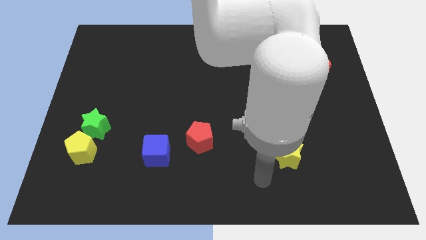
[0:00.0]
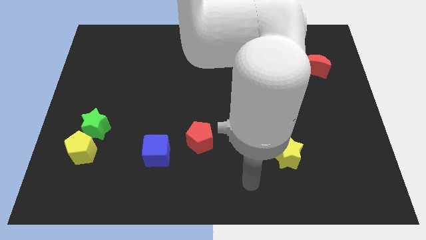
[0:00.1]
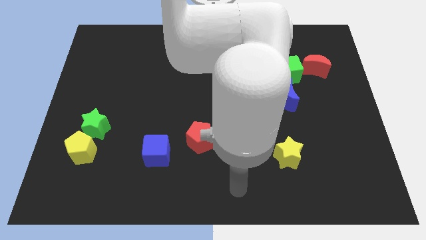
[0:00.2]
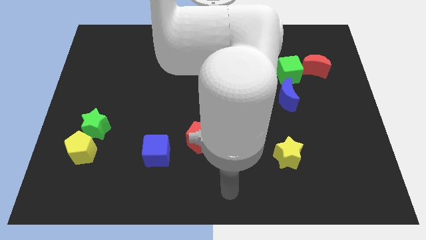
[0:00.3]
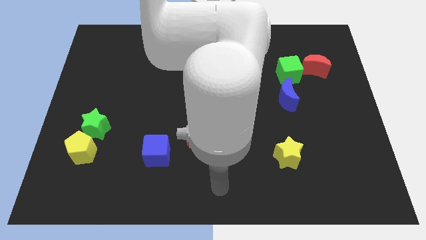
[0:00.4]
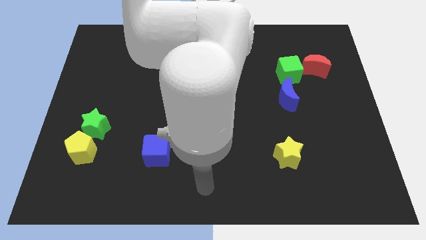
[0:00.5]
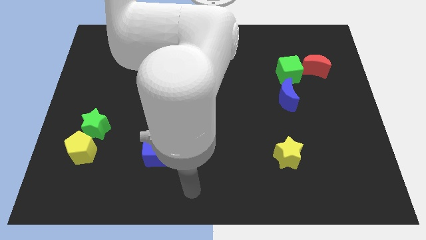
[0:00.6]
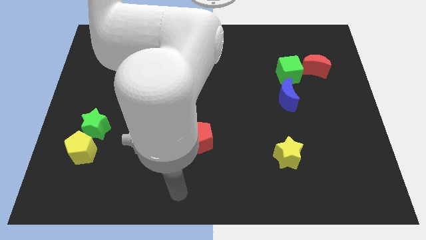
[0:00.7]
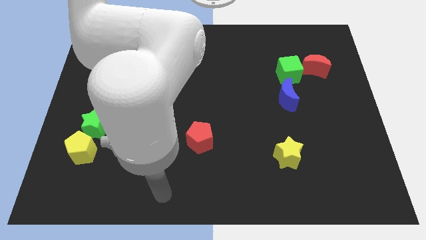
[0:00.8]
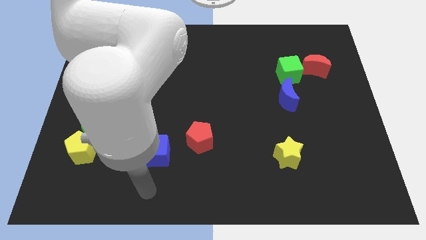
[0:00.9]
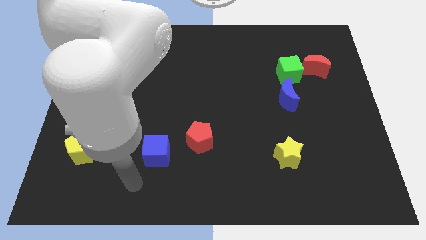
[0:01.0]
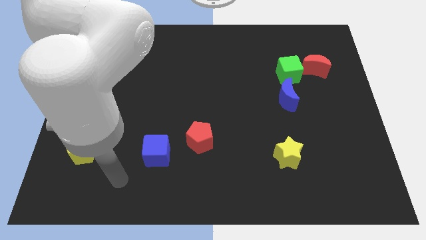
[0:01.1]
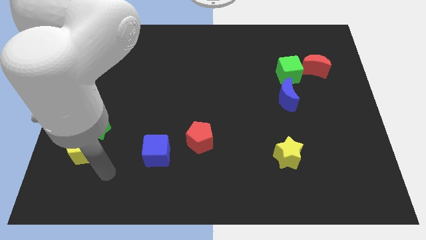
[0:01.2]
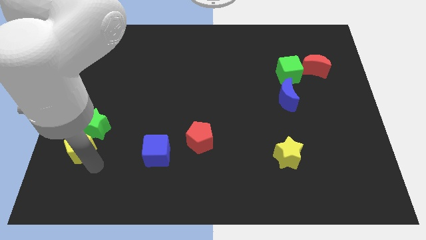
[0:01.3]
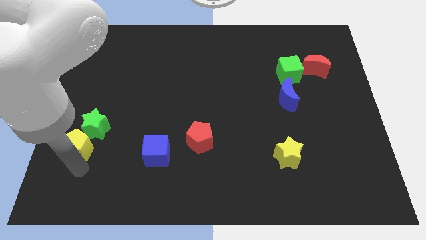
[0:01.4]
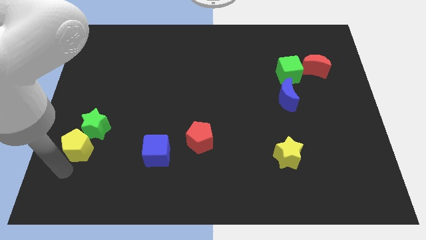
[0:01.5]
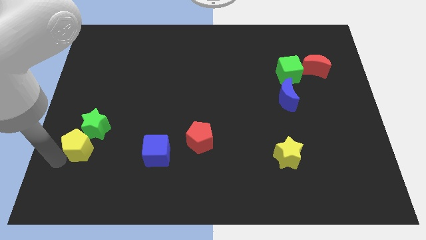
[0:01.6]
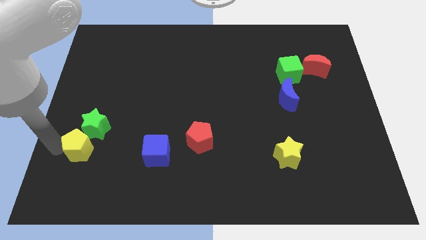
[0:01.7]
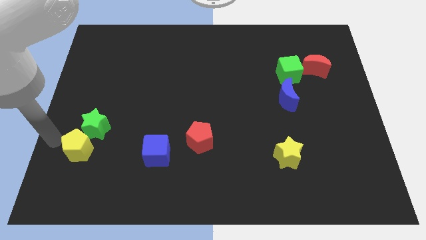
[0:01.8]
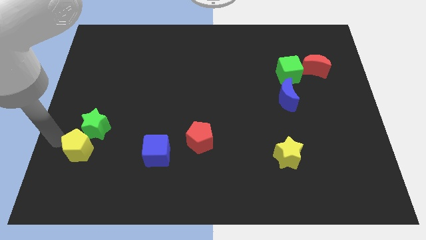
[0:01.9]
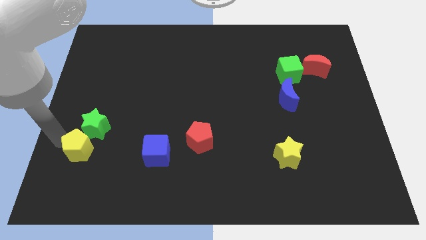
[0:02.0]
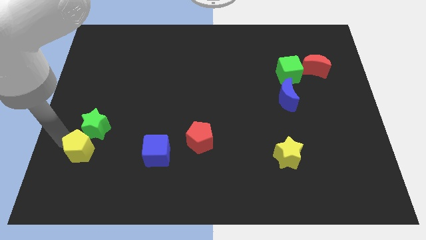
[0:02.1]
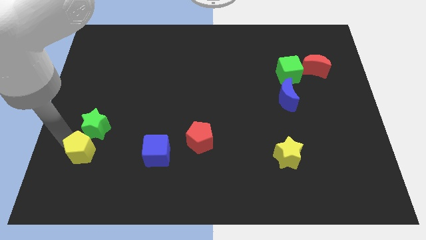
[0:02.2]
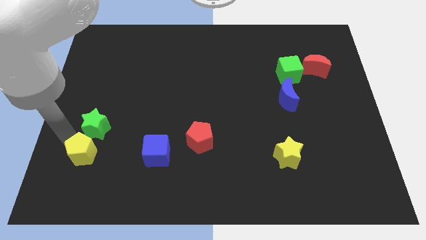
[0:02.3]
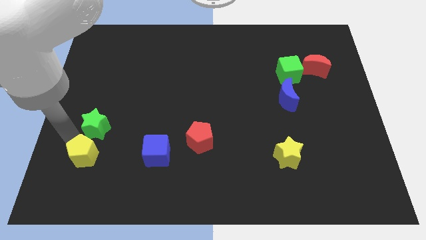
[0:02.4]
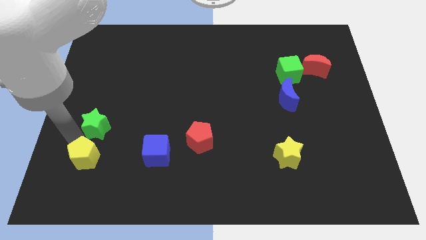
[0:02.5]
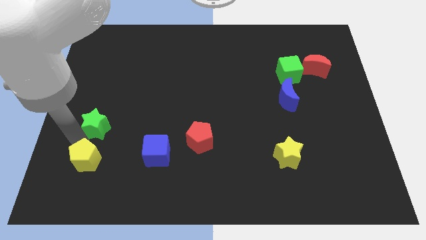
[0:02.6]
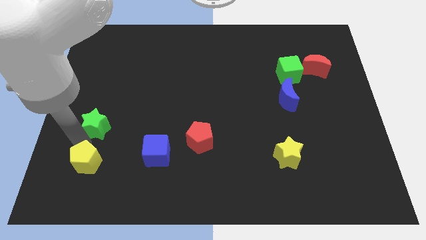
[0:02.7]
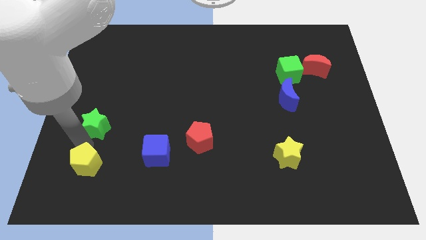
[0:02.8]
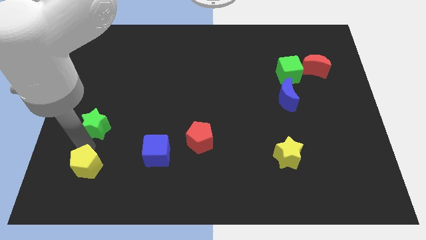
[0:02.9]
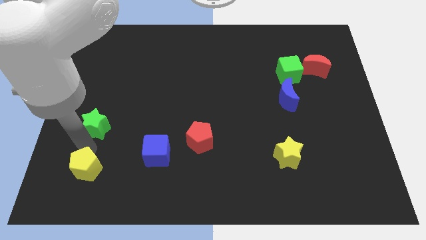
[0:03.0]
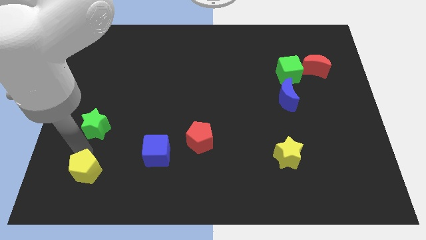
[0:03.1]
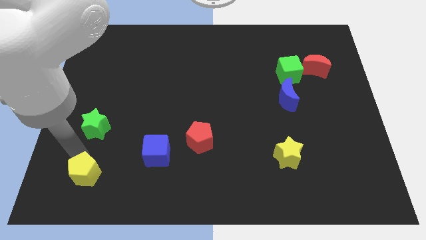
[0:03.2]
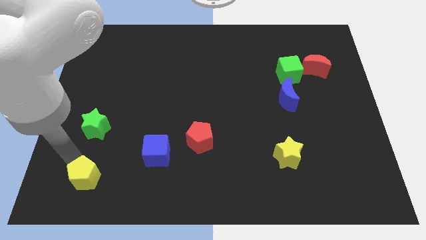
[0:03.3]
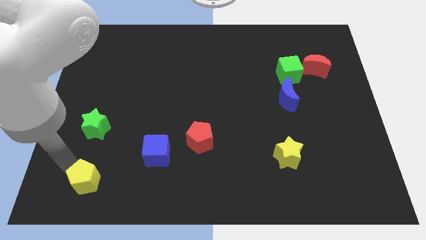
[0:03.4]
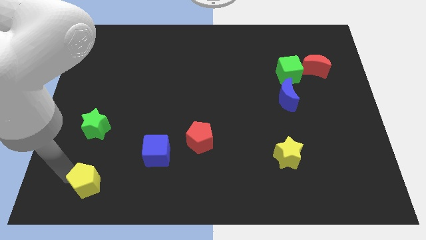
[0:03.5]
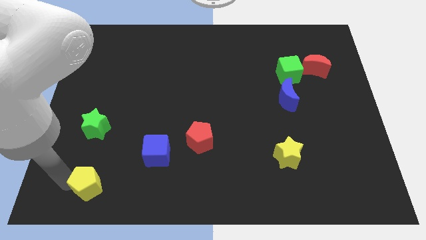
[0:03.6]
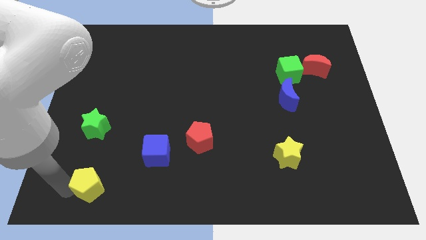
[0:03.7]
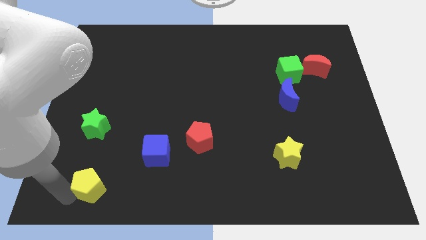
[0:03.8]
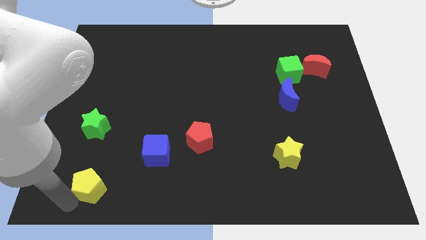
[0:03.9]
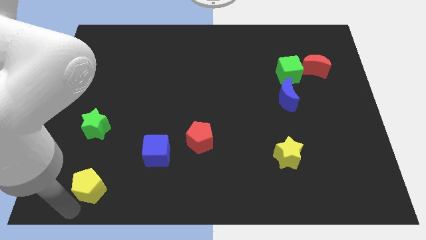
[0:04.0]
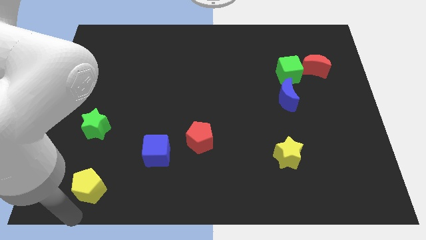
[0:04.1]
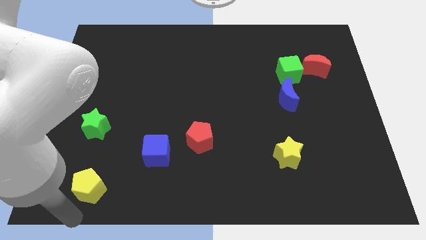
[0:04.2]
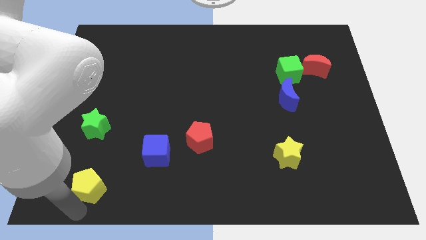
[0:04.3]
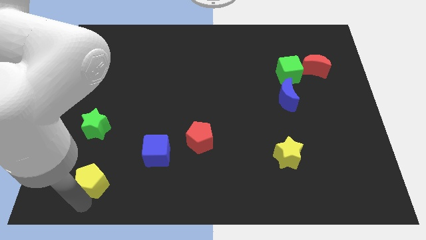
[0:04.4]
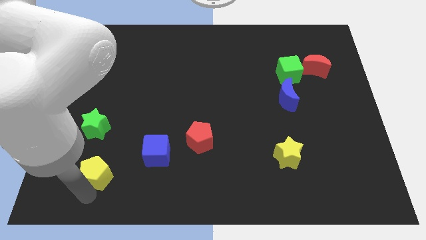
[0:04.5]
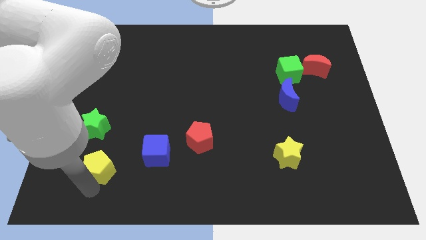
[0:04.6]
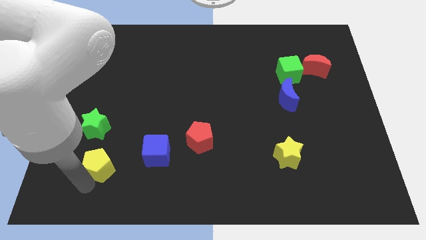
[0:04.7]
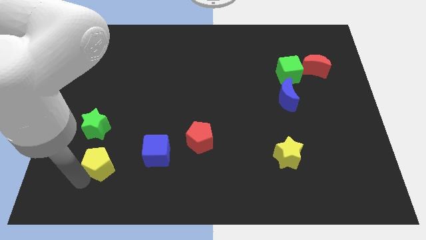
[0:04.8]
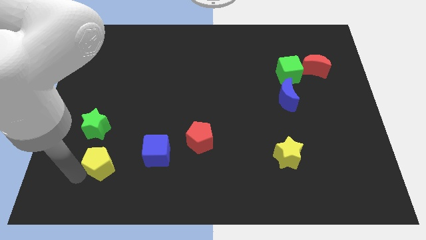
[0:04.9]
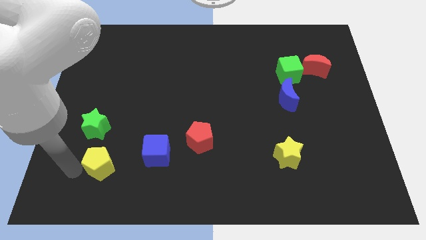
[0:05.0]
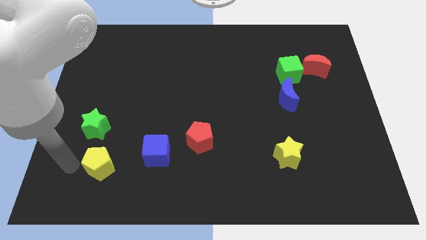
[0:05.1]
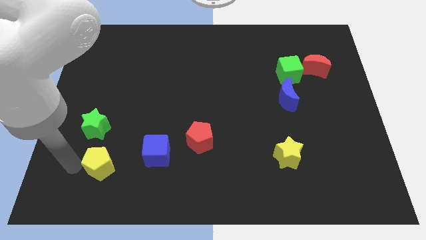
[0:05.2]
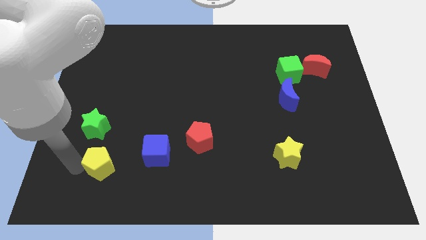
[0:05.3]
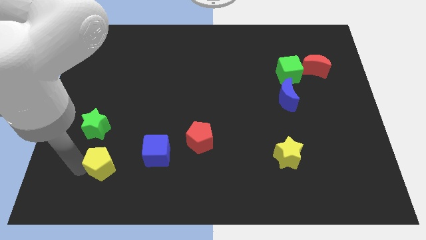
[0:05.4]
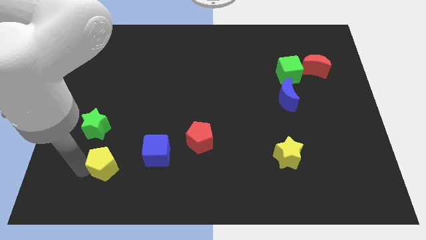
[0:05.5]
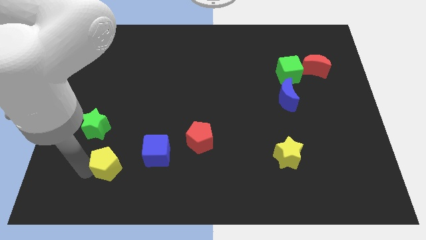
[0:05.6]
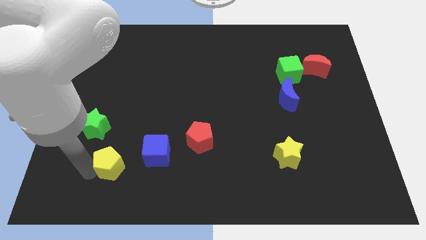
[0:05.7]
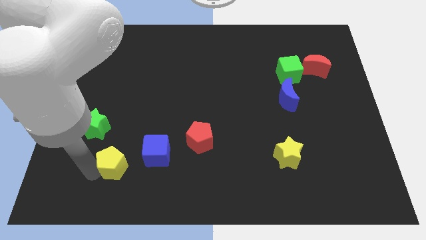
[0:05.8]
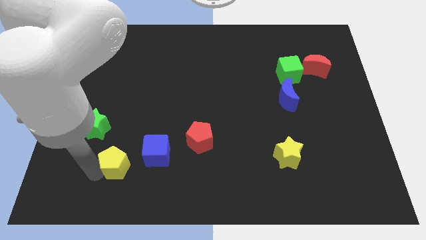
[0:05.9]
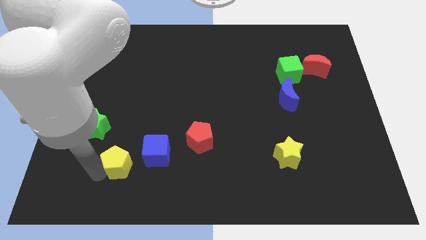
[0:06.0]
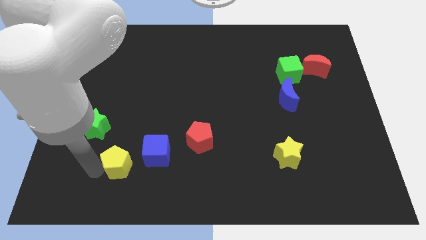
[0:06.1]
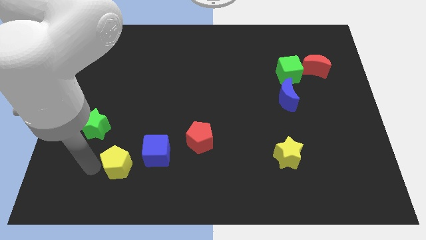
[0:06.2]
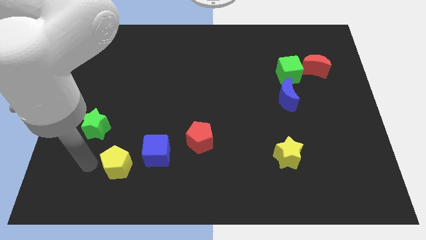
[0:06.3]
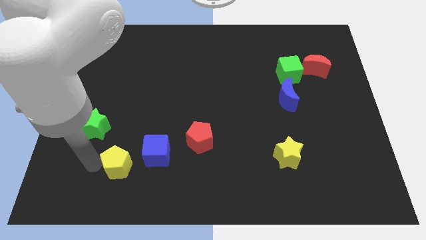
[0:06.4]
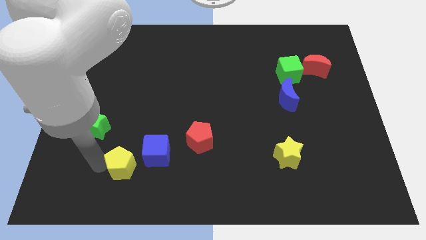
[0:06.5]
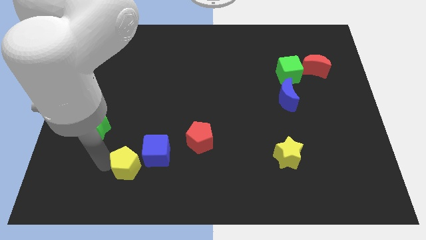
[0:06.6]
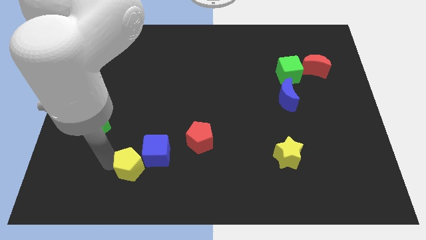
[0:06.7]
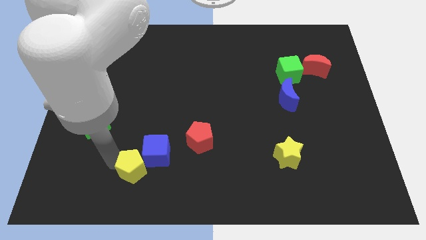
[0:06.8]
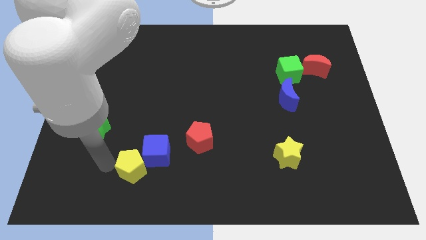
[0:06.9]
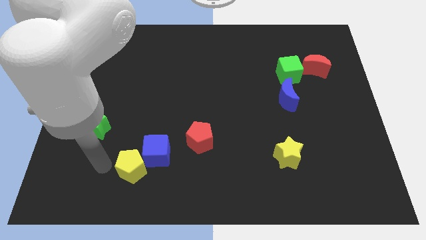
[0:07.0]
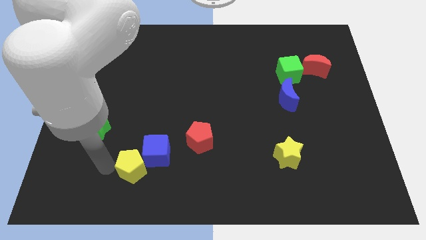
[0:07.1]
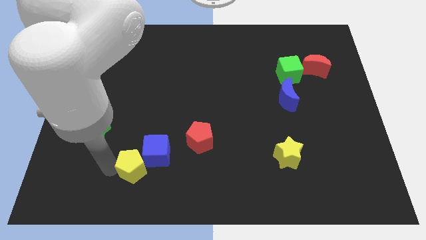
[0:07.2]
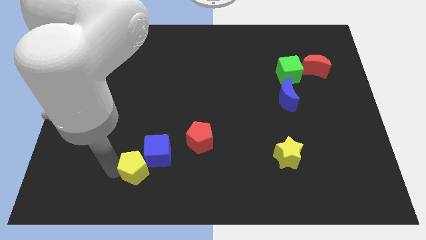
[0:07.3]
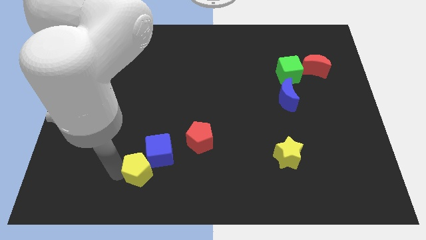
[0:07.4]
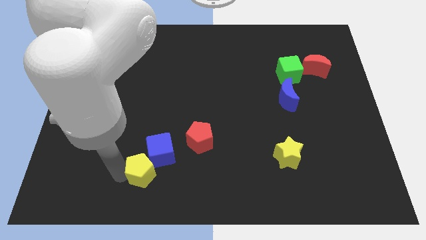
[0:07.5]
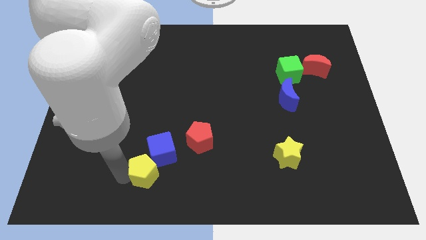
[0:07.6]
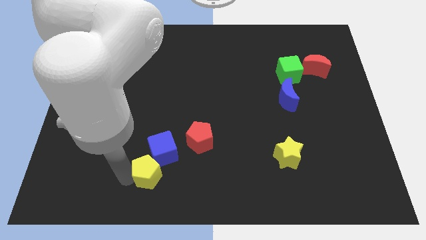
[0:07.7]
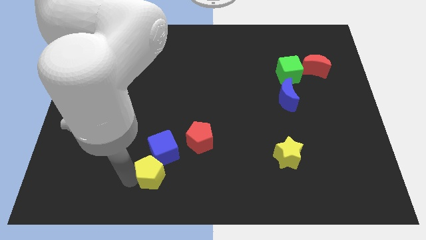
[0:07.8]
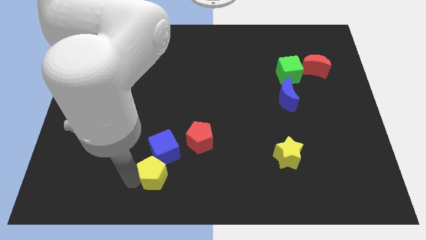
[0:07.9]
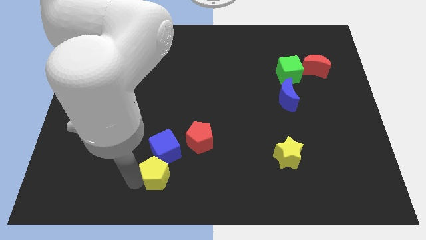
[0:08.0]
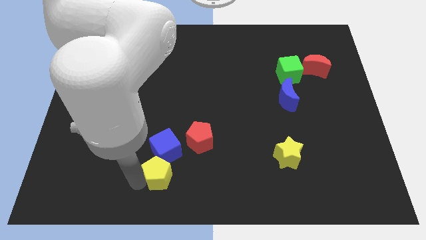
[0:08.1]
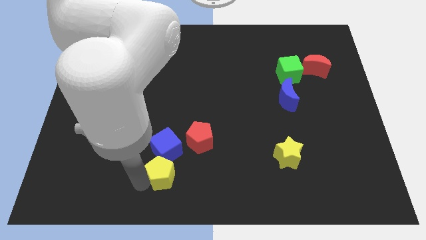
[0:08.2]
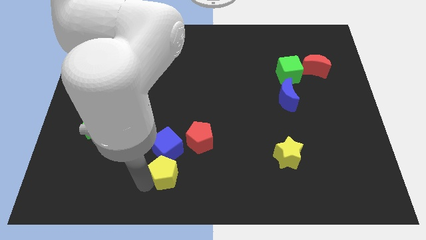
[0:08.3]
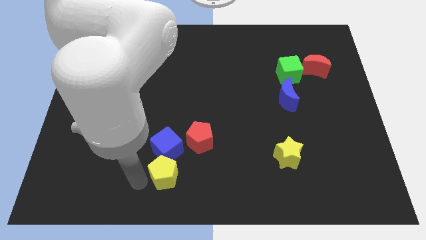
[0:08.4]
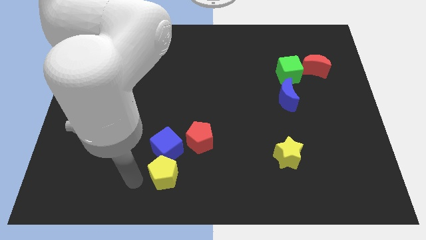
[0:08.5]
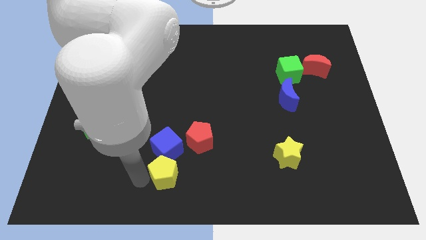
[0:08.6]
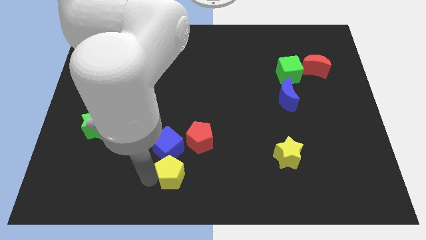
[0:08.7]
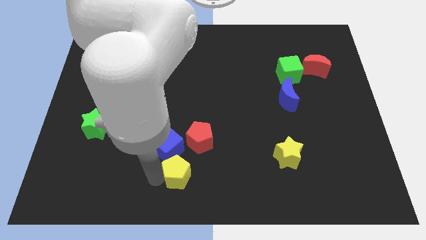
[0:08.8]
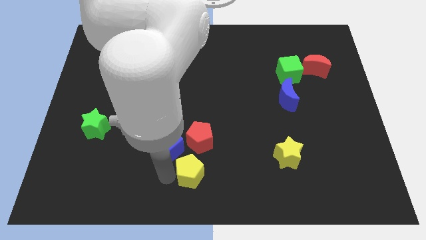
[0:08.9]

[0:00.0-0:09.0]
push the yellow pentagon right
